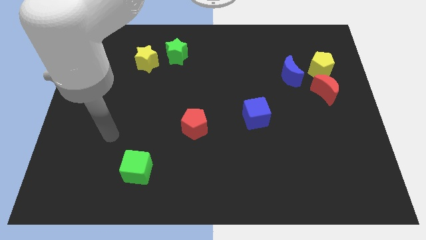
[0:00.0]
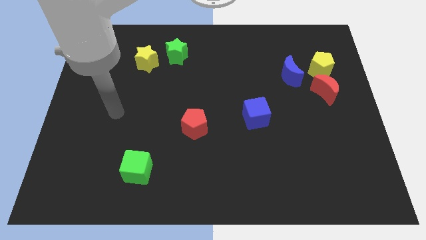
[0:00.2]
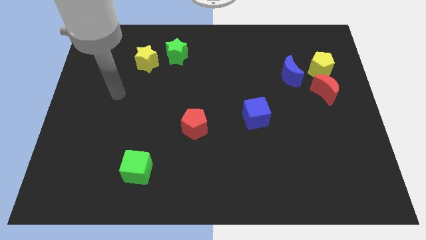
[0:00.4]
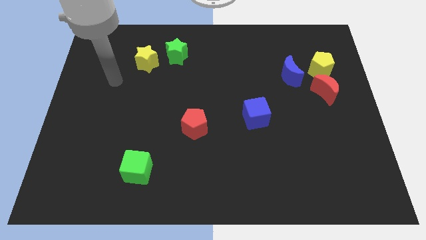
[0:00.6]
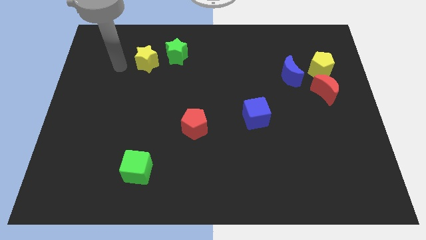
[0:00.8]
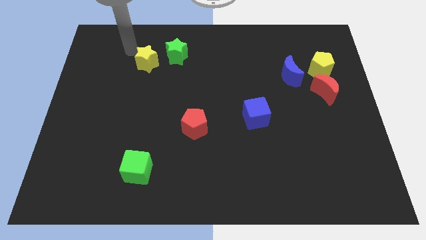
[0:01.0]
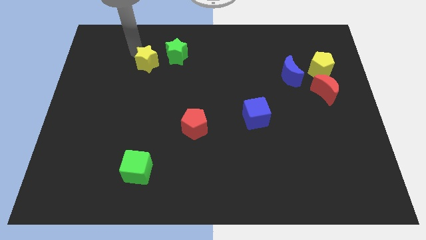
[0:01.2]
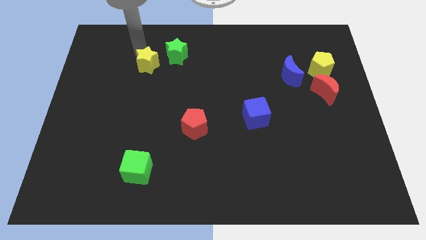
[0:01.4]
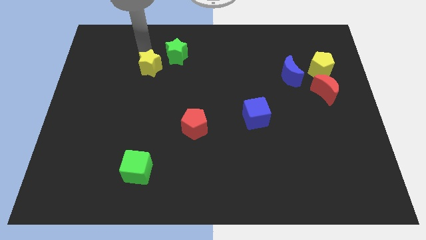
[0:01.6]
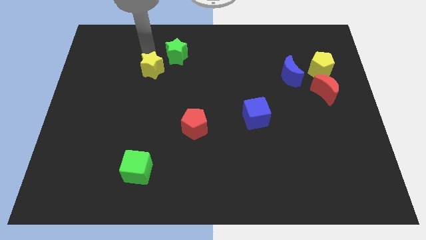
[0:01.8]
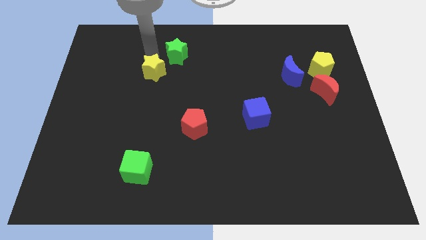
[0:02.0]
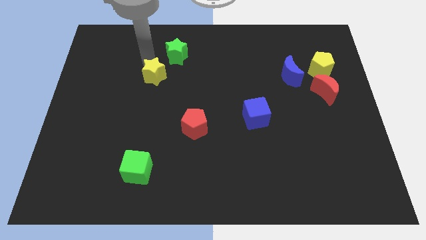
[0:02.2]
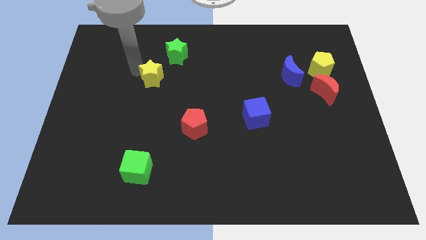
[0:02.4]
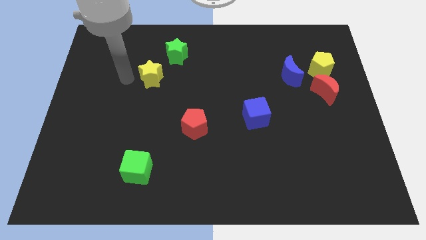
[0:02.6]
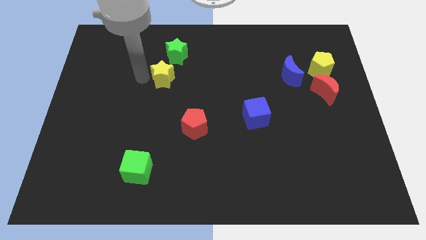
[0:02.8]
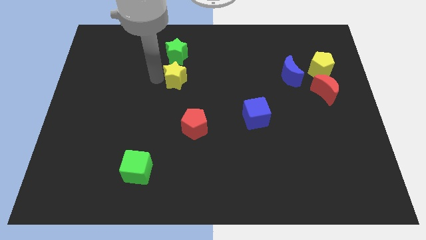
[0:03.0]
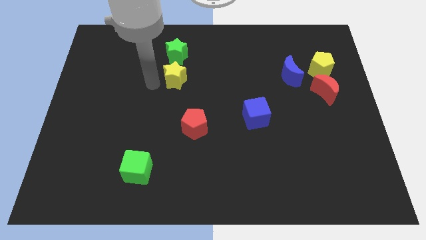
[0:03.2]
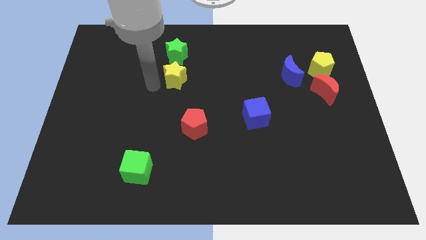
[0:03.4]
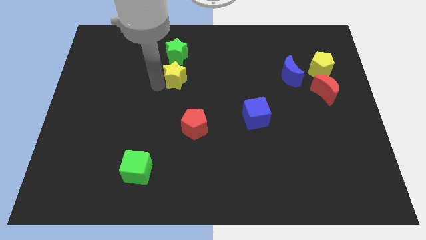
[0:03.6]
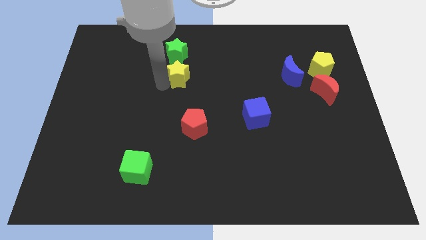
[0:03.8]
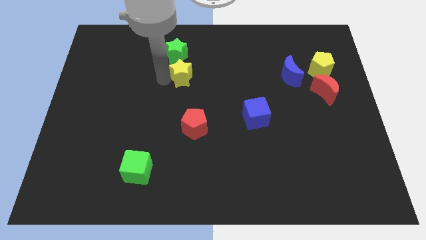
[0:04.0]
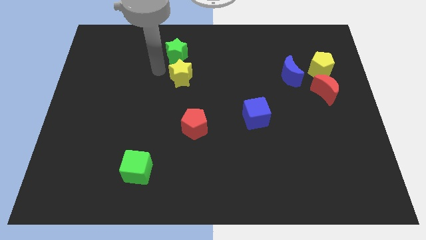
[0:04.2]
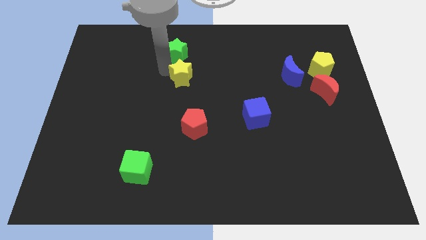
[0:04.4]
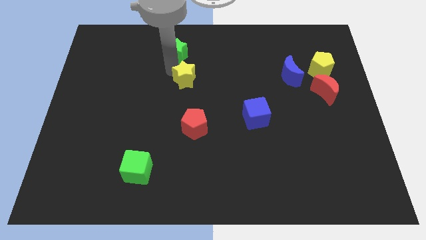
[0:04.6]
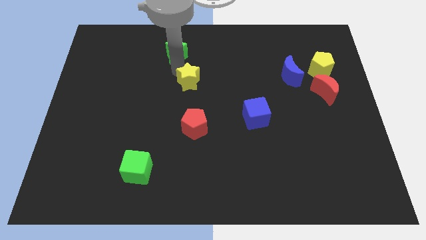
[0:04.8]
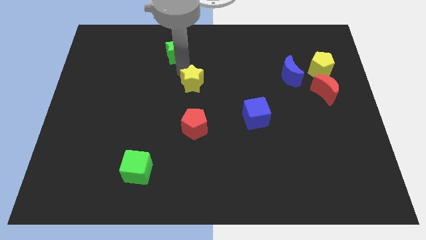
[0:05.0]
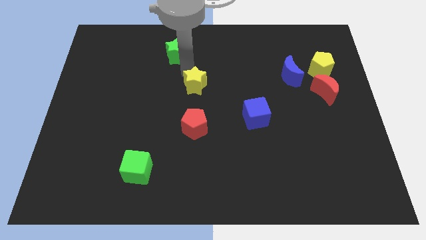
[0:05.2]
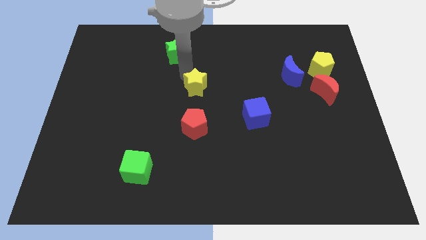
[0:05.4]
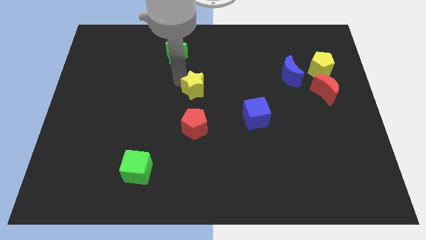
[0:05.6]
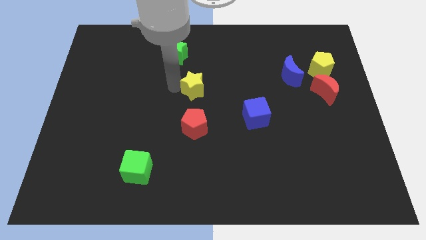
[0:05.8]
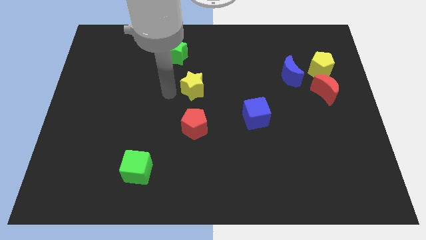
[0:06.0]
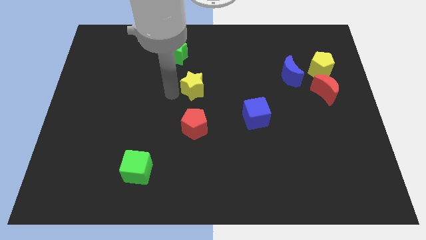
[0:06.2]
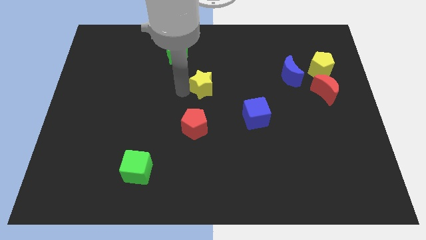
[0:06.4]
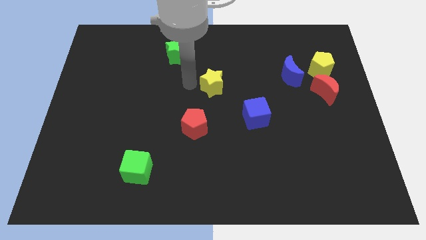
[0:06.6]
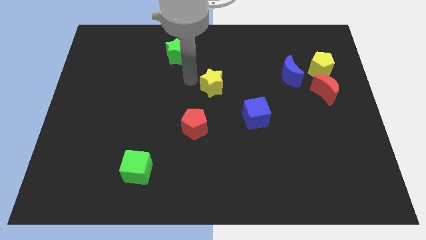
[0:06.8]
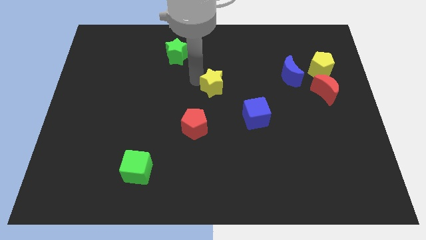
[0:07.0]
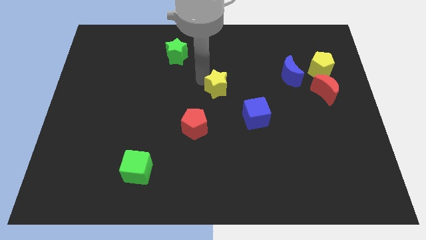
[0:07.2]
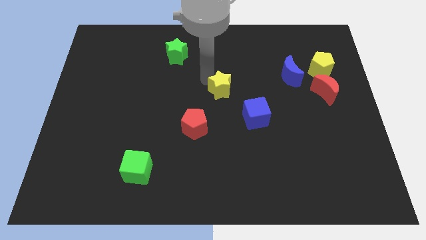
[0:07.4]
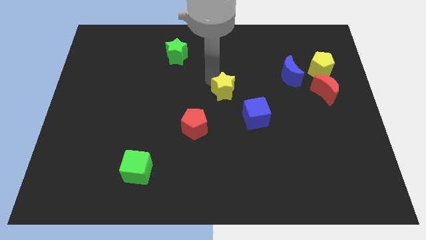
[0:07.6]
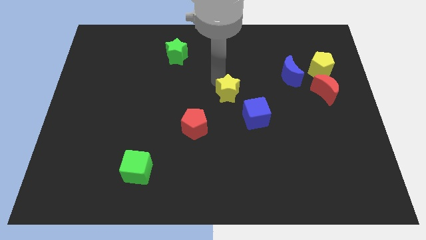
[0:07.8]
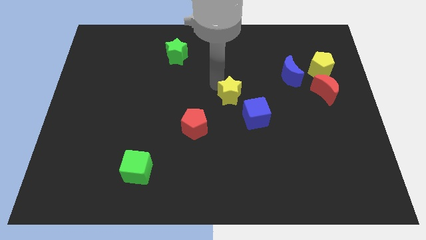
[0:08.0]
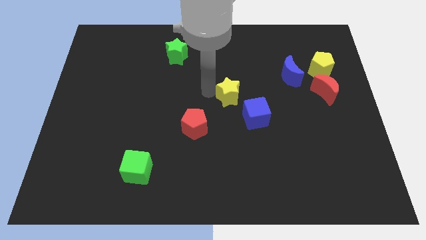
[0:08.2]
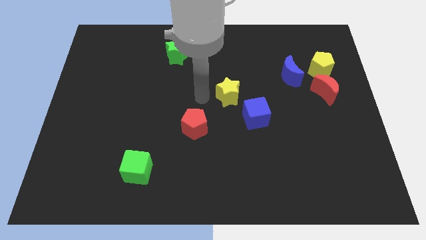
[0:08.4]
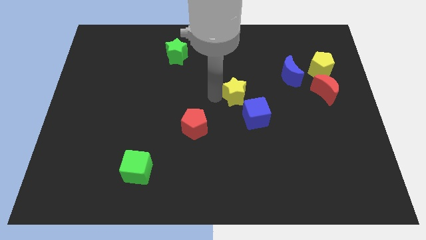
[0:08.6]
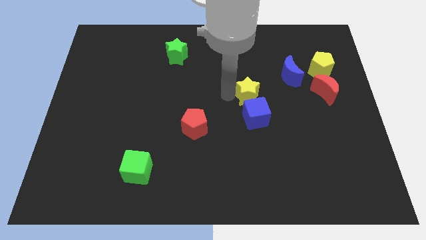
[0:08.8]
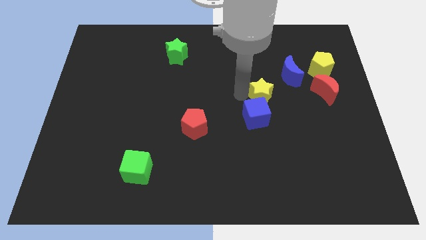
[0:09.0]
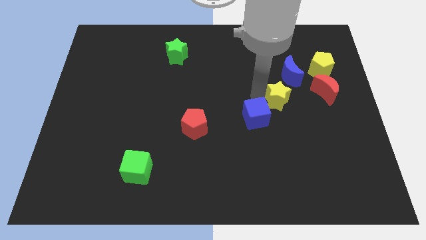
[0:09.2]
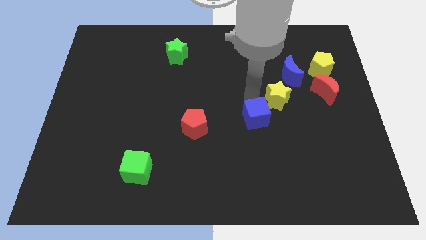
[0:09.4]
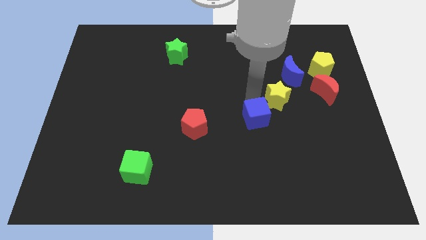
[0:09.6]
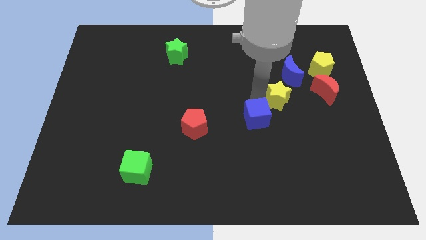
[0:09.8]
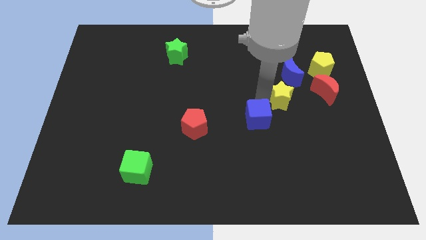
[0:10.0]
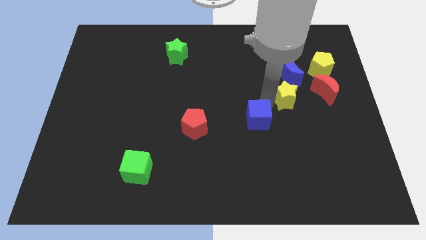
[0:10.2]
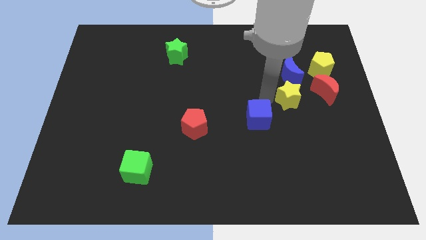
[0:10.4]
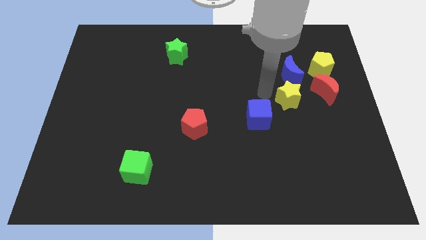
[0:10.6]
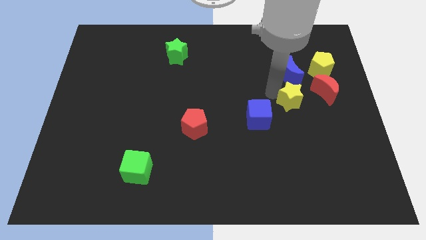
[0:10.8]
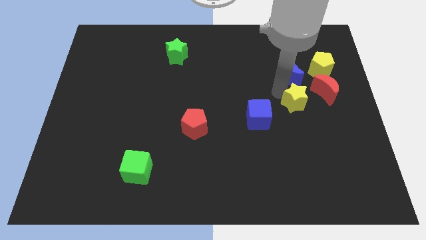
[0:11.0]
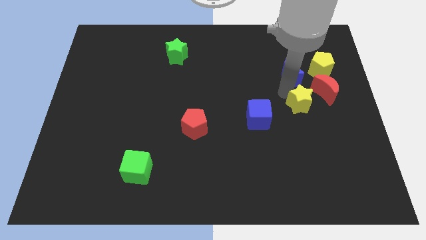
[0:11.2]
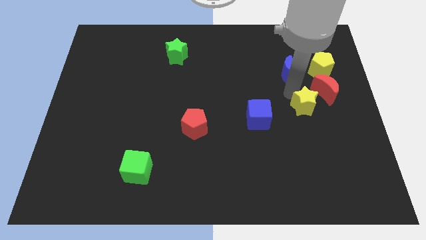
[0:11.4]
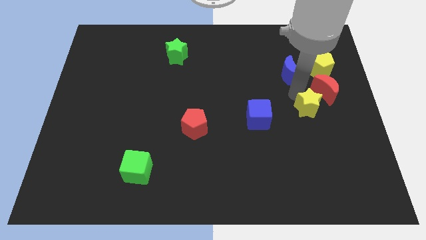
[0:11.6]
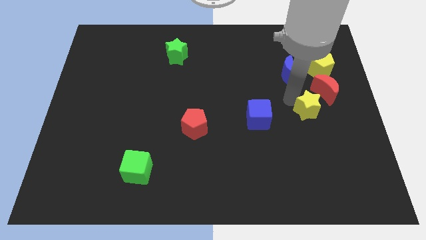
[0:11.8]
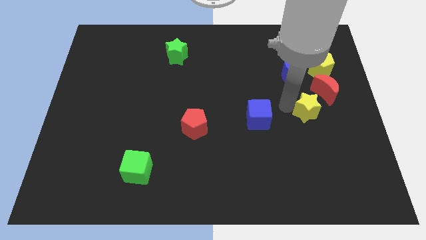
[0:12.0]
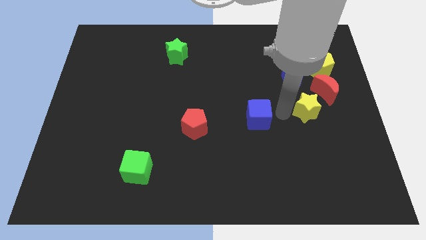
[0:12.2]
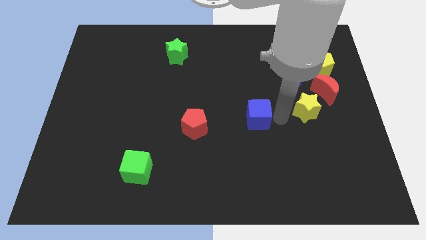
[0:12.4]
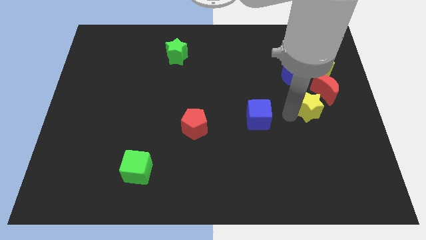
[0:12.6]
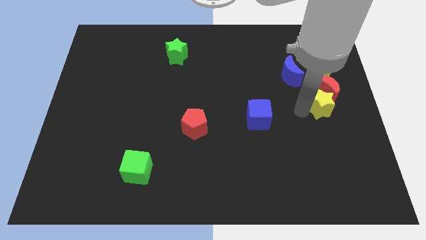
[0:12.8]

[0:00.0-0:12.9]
slide the yellow star to the right side of the board

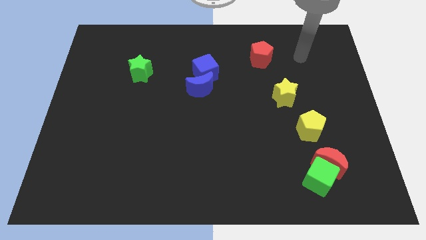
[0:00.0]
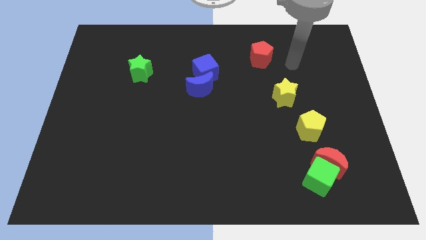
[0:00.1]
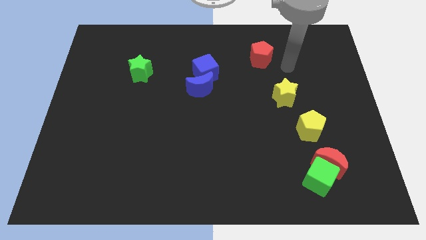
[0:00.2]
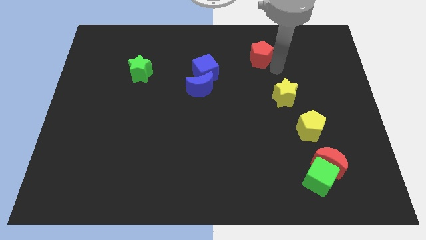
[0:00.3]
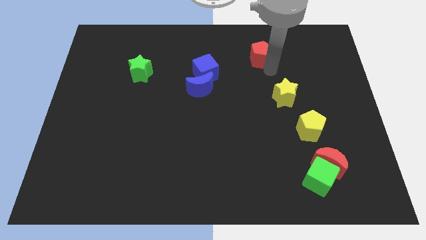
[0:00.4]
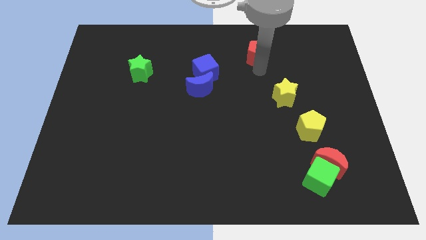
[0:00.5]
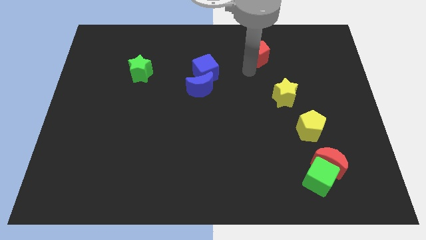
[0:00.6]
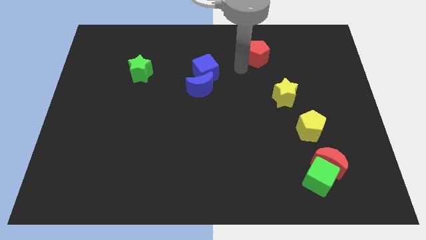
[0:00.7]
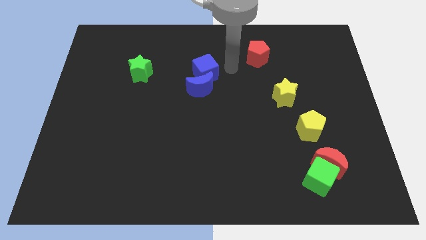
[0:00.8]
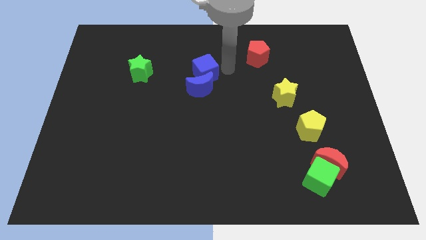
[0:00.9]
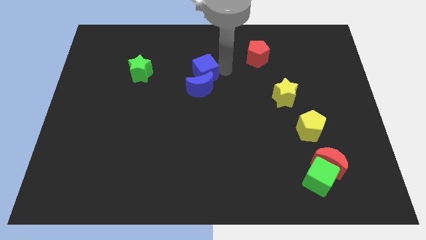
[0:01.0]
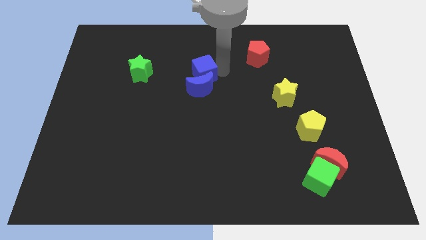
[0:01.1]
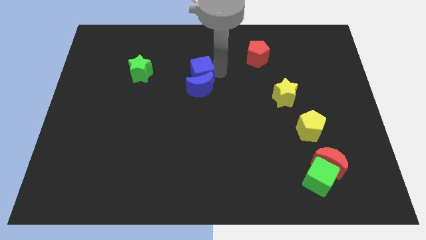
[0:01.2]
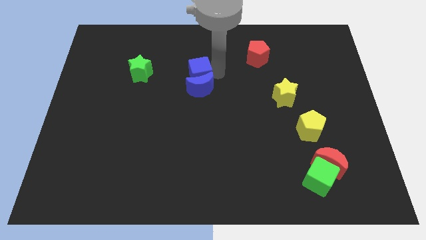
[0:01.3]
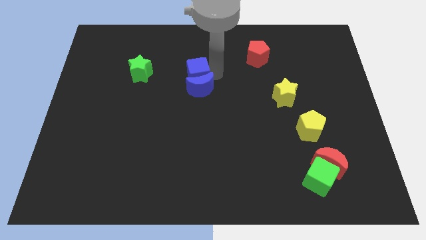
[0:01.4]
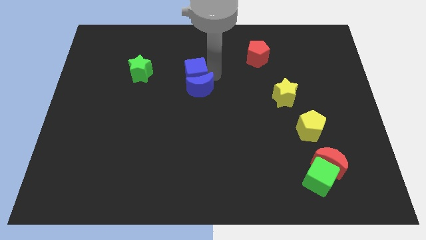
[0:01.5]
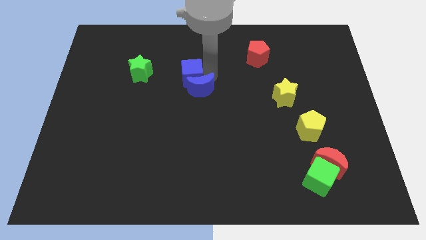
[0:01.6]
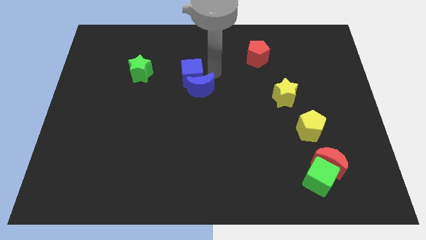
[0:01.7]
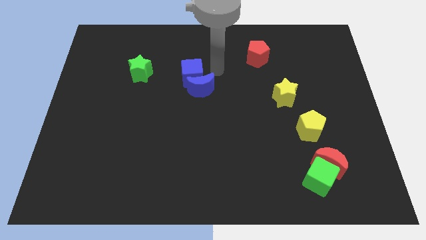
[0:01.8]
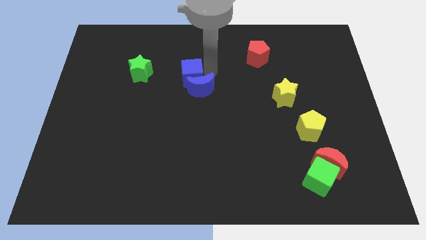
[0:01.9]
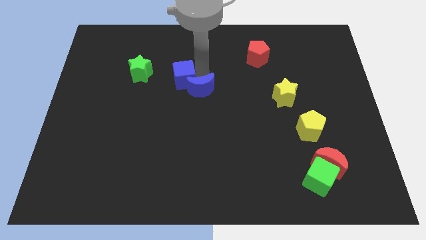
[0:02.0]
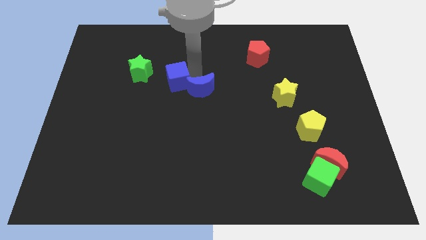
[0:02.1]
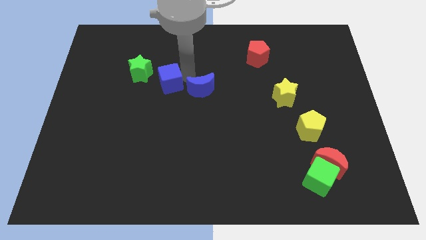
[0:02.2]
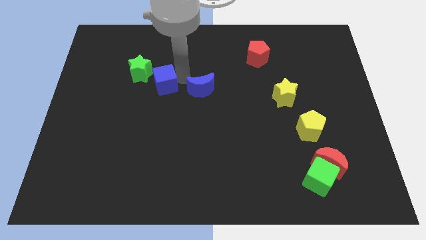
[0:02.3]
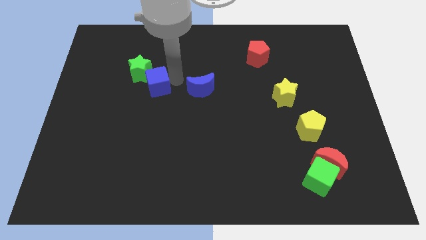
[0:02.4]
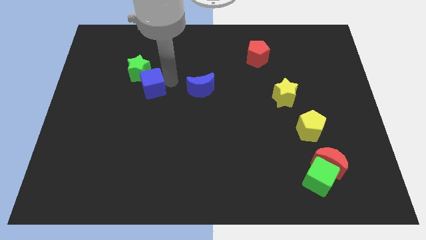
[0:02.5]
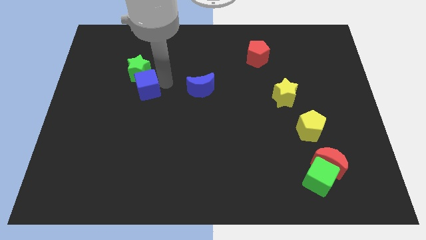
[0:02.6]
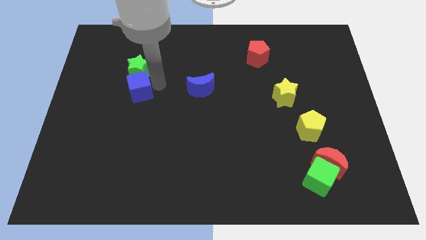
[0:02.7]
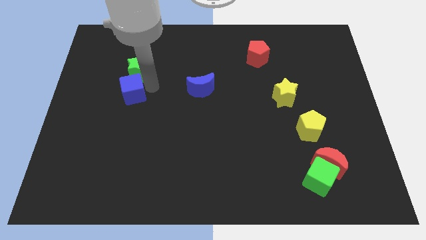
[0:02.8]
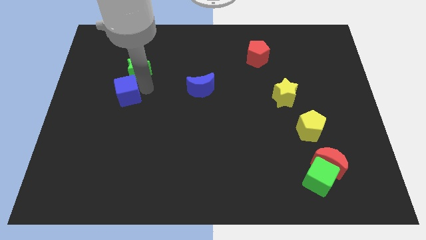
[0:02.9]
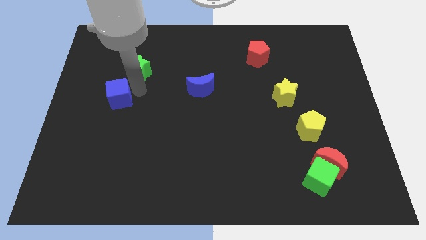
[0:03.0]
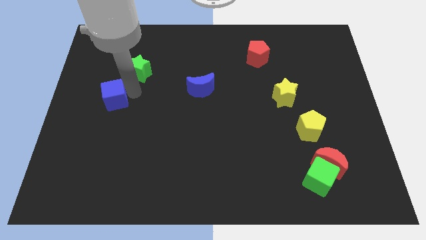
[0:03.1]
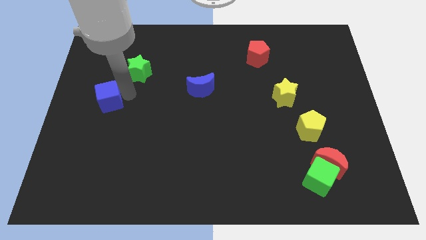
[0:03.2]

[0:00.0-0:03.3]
put the blue cube to the left side of the board
